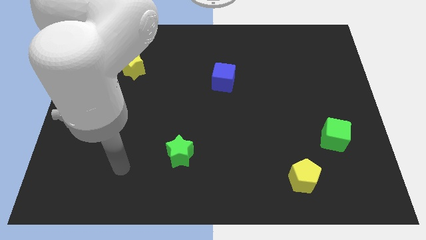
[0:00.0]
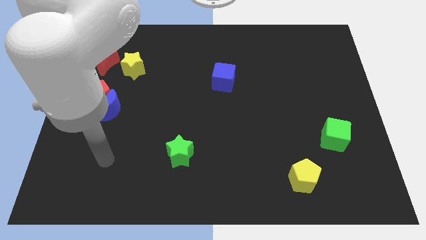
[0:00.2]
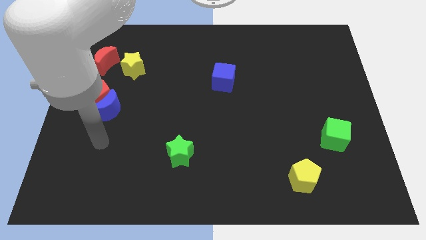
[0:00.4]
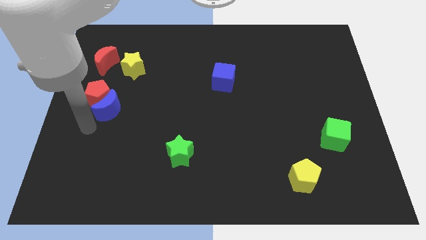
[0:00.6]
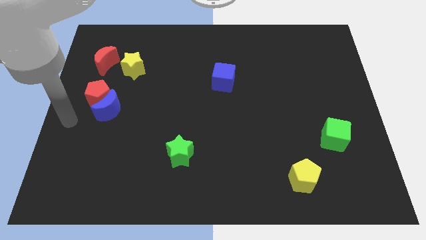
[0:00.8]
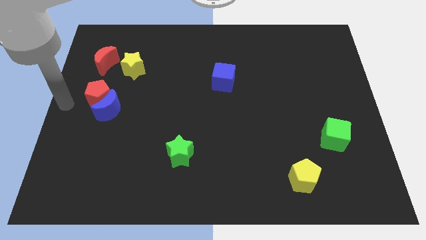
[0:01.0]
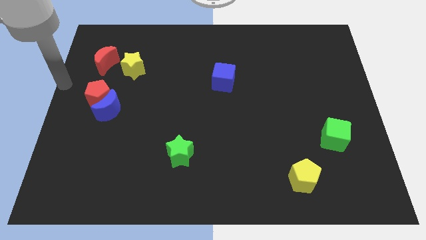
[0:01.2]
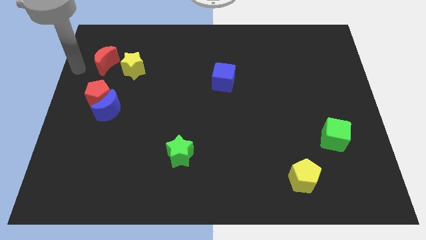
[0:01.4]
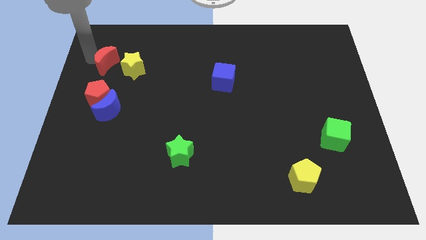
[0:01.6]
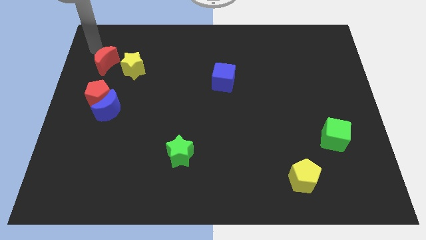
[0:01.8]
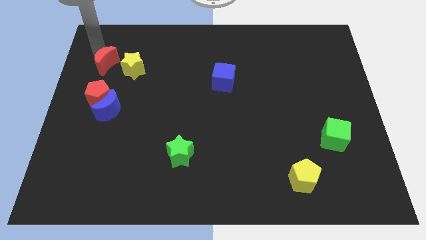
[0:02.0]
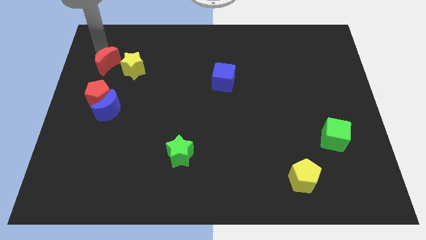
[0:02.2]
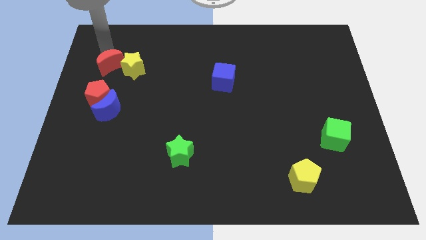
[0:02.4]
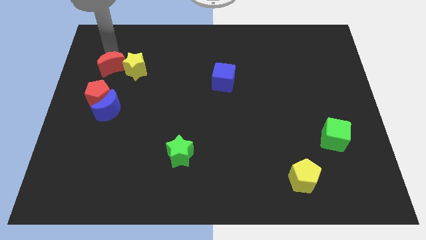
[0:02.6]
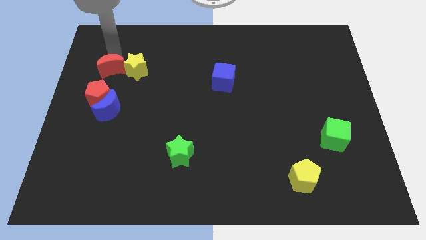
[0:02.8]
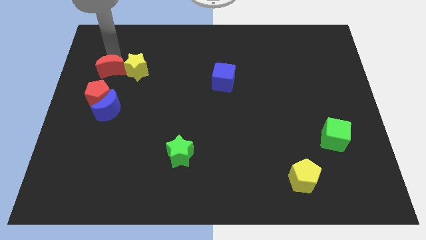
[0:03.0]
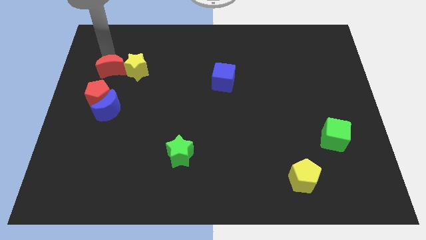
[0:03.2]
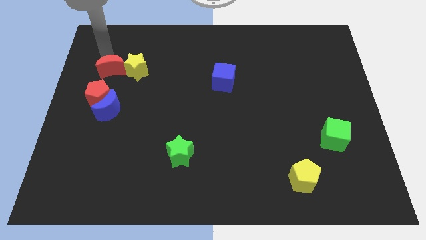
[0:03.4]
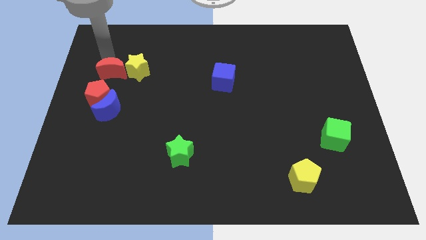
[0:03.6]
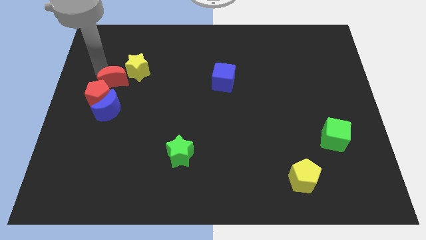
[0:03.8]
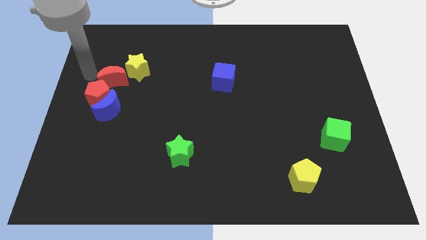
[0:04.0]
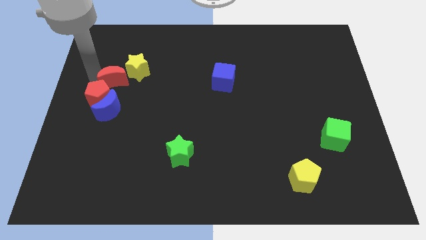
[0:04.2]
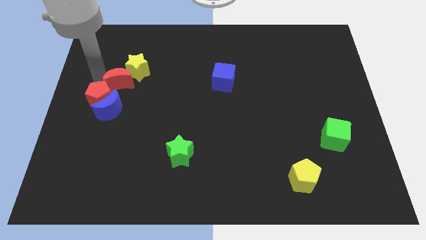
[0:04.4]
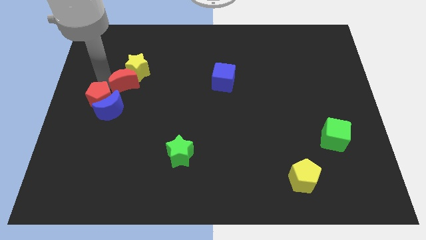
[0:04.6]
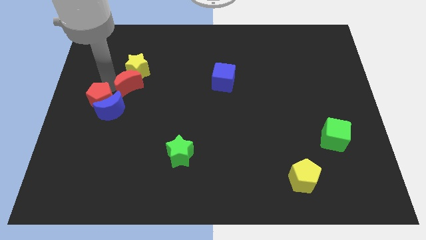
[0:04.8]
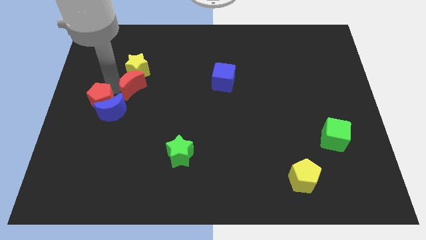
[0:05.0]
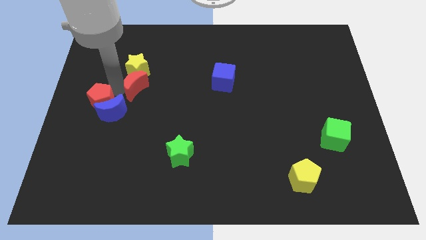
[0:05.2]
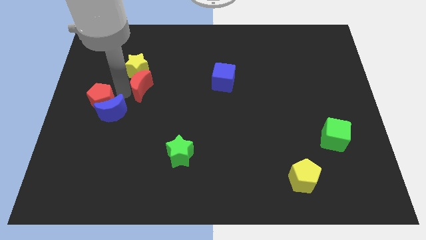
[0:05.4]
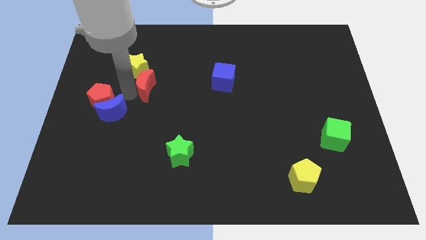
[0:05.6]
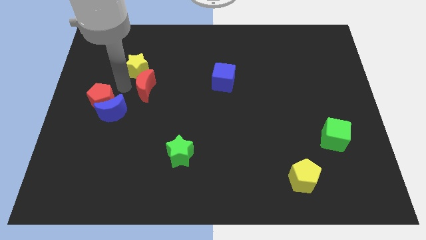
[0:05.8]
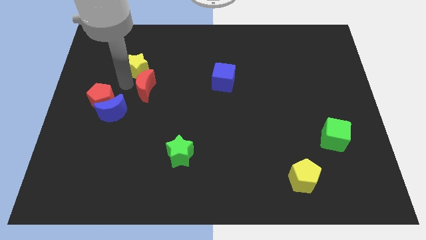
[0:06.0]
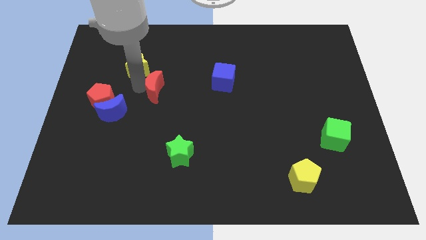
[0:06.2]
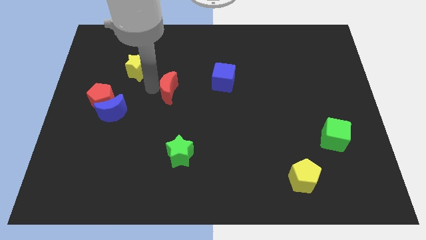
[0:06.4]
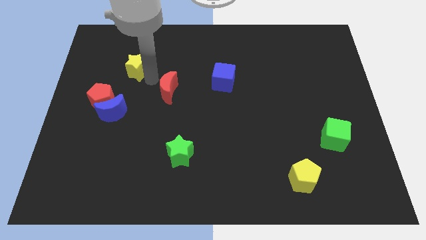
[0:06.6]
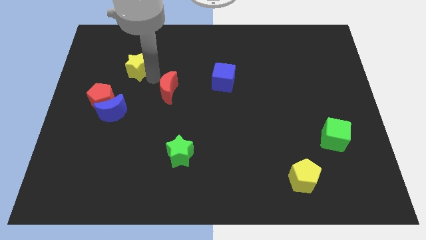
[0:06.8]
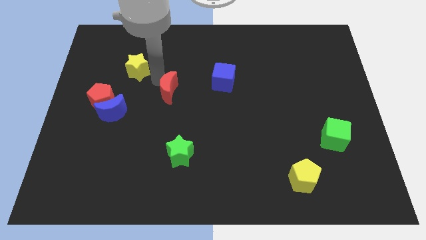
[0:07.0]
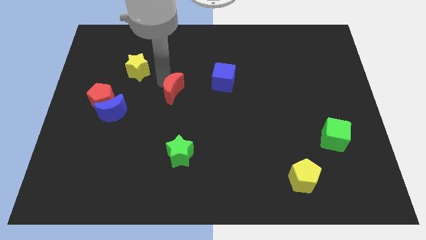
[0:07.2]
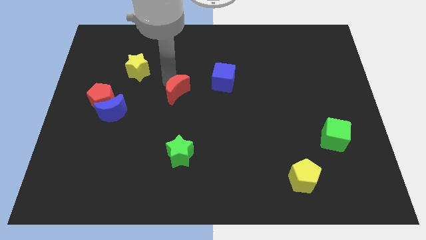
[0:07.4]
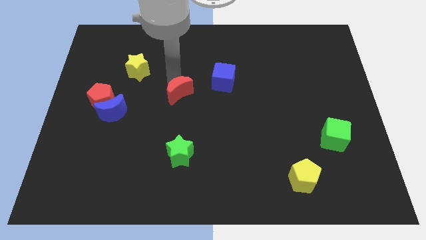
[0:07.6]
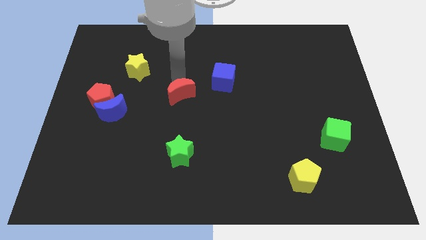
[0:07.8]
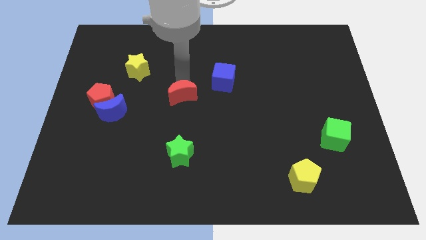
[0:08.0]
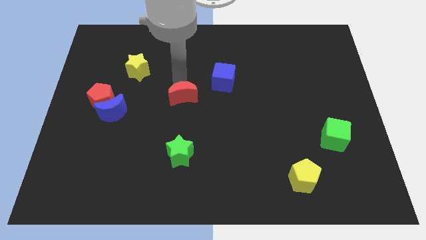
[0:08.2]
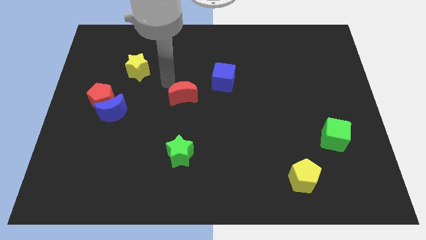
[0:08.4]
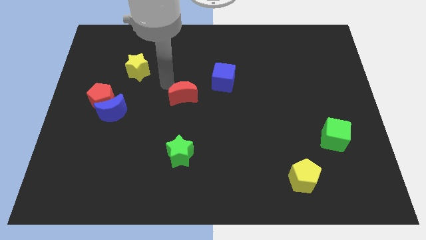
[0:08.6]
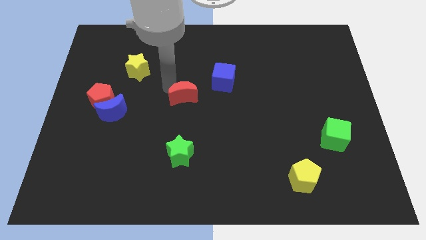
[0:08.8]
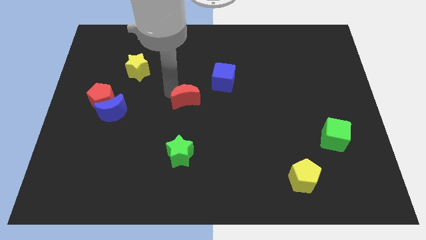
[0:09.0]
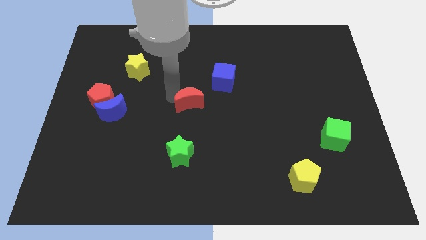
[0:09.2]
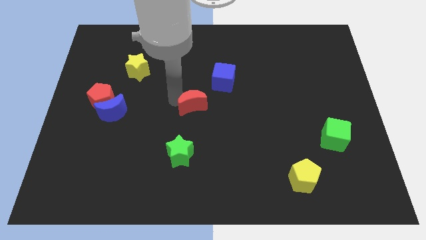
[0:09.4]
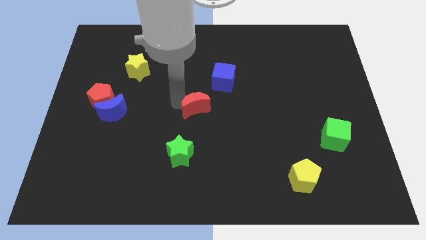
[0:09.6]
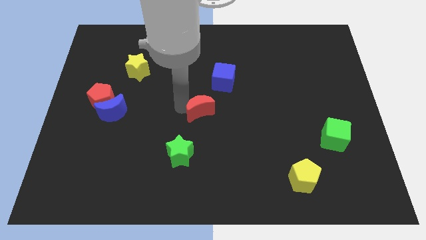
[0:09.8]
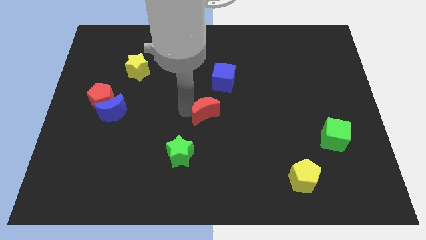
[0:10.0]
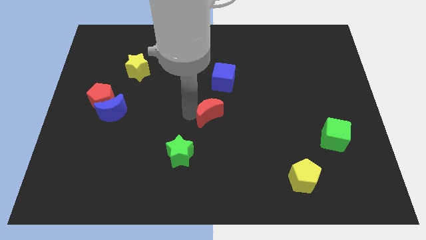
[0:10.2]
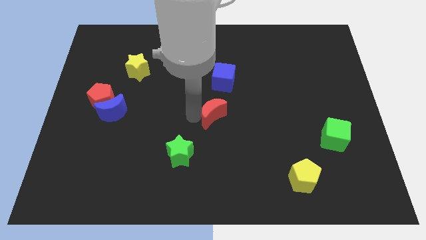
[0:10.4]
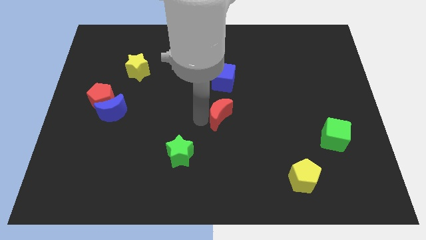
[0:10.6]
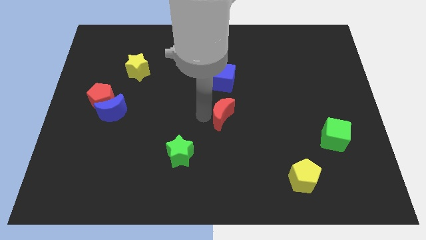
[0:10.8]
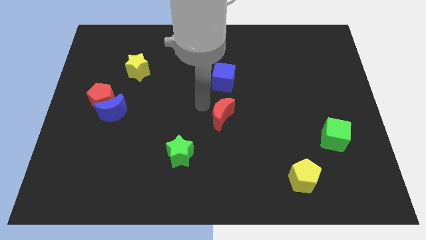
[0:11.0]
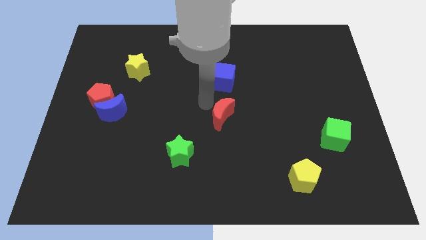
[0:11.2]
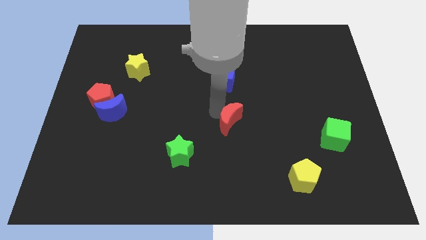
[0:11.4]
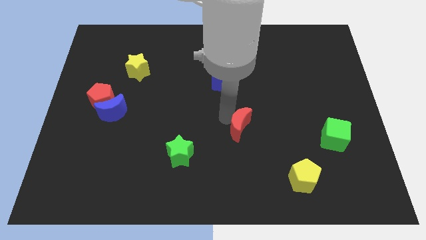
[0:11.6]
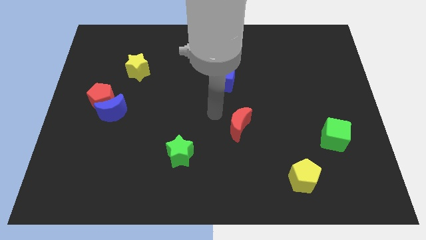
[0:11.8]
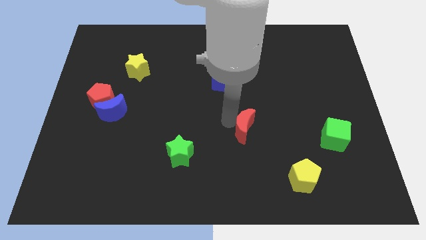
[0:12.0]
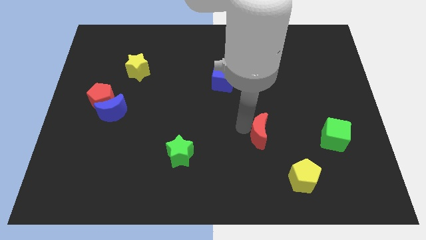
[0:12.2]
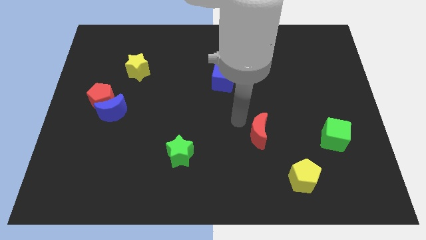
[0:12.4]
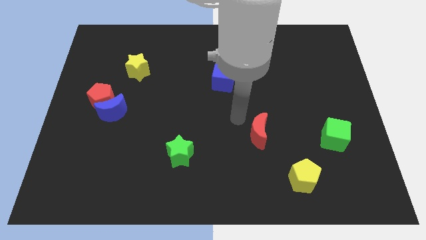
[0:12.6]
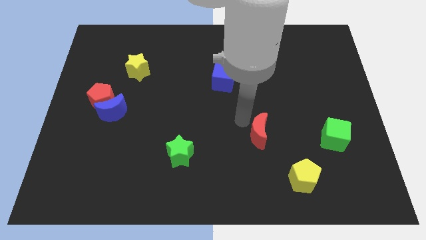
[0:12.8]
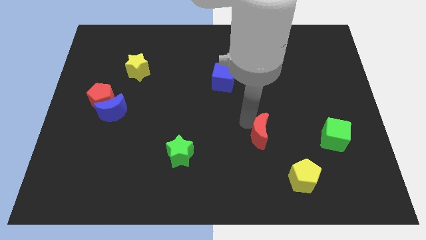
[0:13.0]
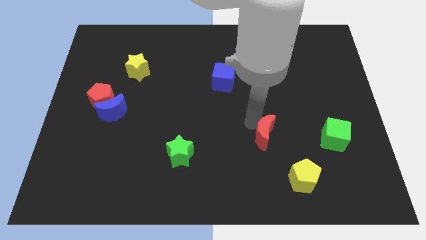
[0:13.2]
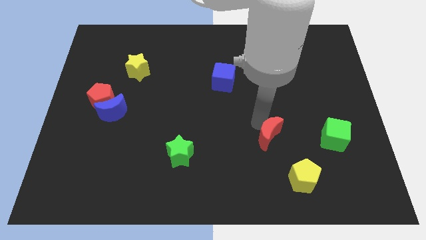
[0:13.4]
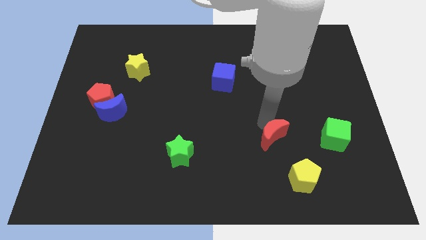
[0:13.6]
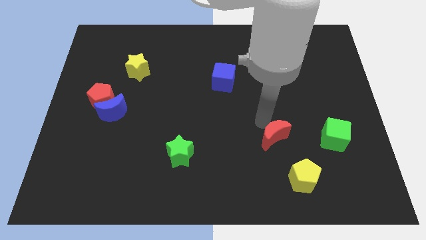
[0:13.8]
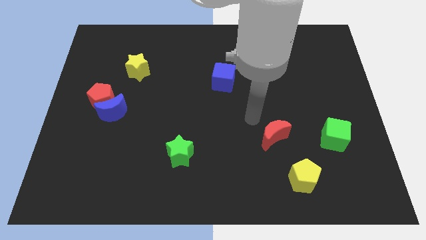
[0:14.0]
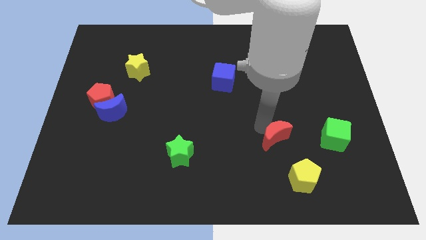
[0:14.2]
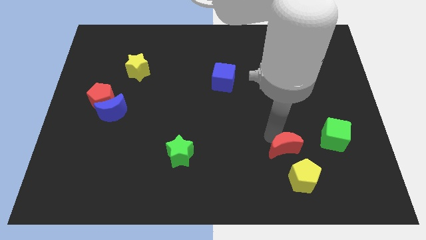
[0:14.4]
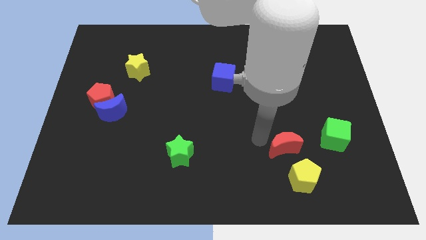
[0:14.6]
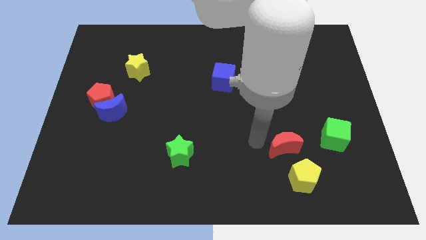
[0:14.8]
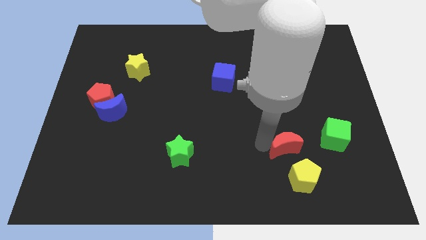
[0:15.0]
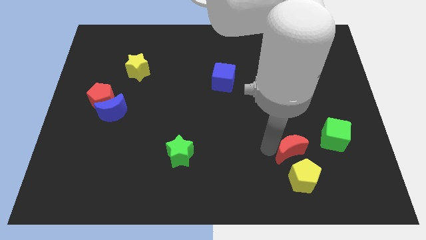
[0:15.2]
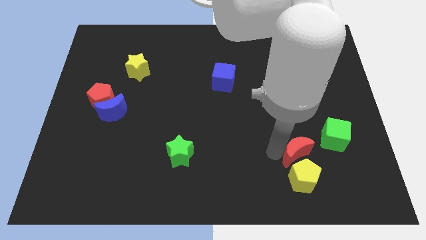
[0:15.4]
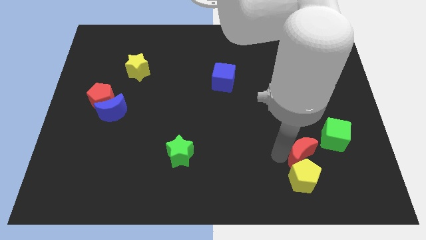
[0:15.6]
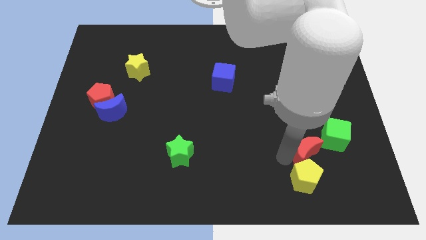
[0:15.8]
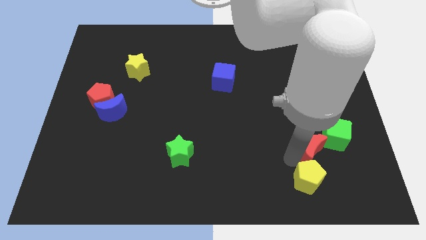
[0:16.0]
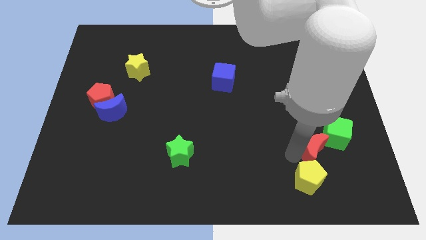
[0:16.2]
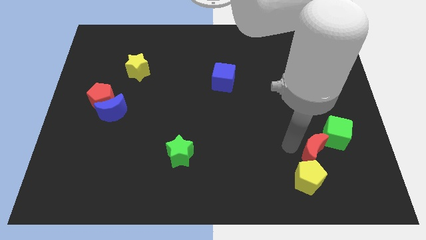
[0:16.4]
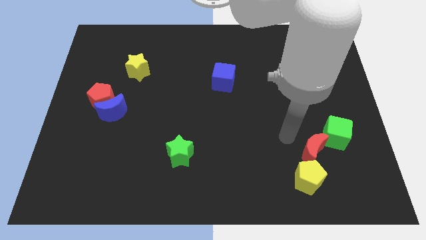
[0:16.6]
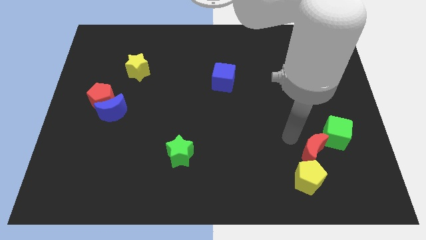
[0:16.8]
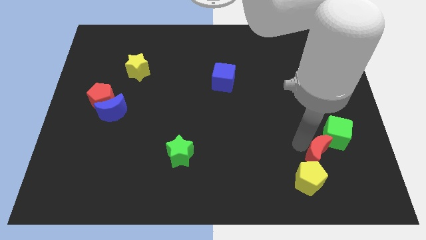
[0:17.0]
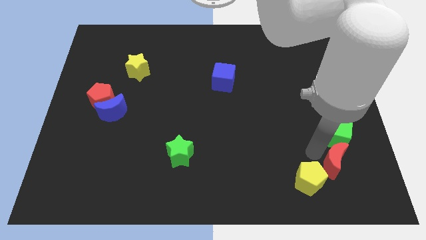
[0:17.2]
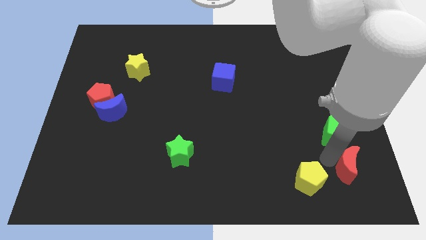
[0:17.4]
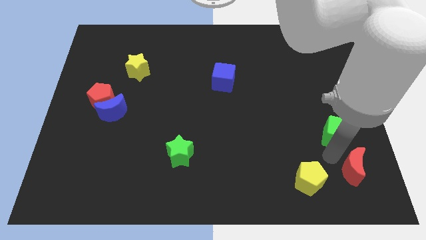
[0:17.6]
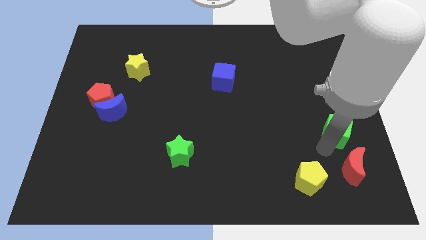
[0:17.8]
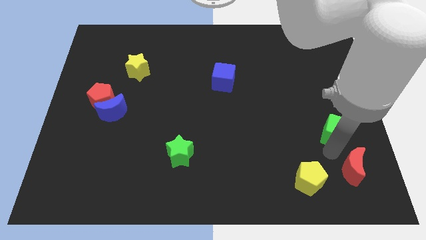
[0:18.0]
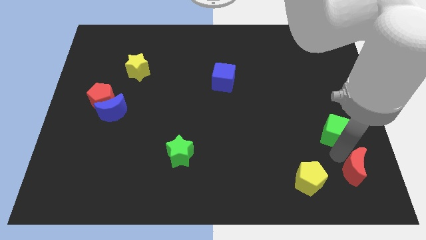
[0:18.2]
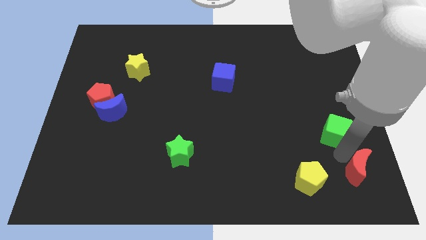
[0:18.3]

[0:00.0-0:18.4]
push the red moon to the lower right corner
